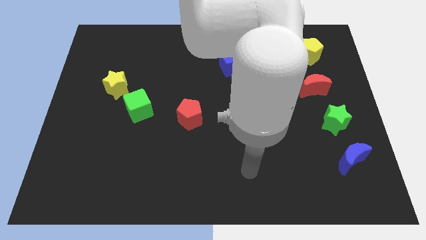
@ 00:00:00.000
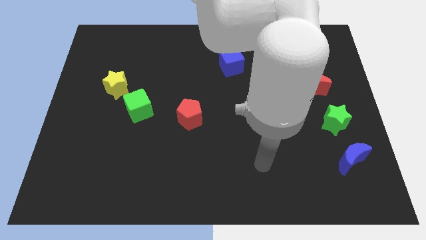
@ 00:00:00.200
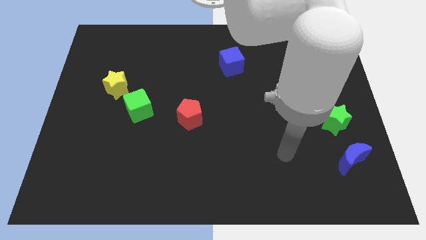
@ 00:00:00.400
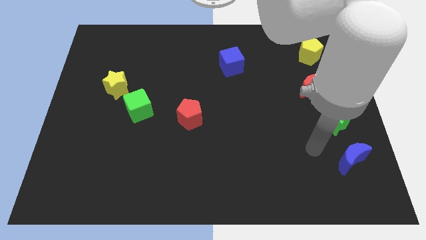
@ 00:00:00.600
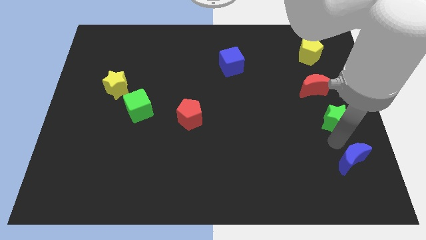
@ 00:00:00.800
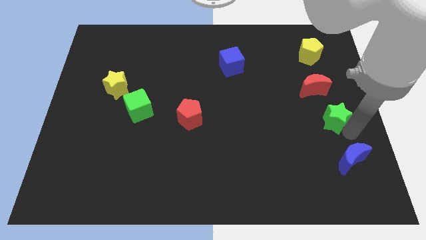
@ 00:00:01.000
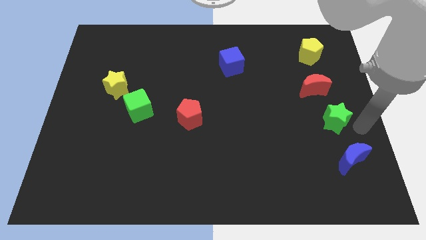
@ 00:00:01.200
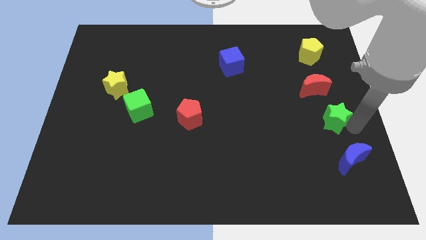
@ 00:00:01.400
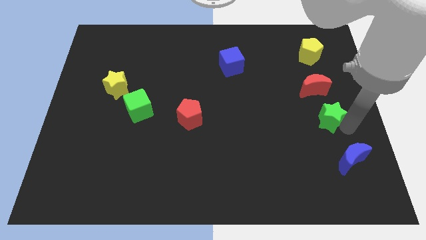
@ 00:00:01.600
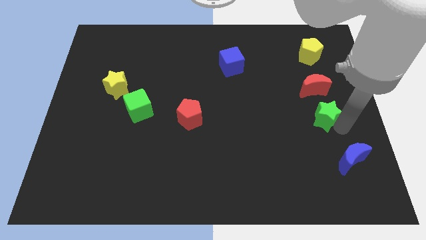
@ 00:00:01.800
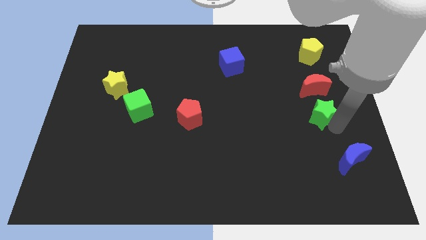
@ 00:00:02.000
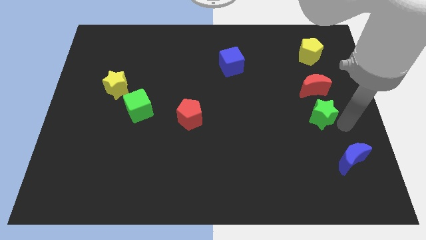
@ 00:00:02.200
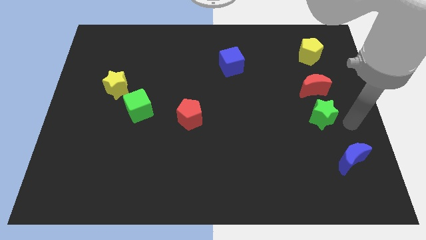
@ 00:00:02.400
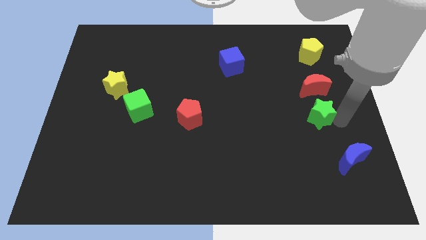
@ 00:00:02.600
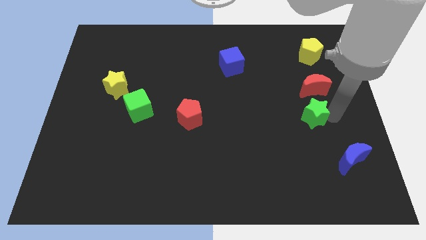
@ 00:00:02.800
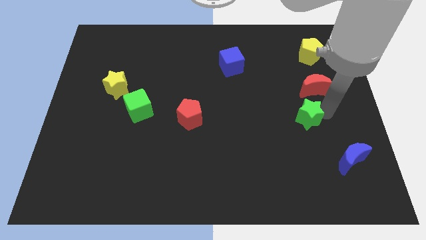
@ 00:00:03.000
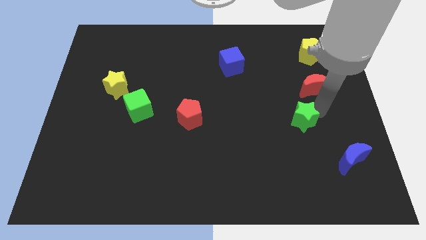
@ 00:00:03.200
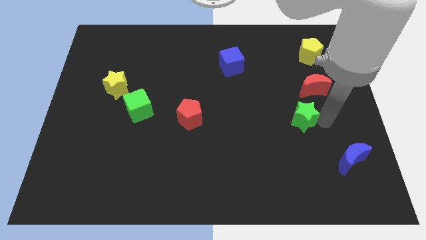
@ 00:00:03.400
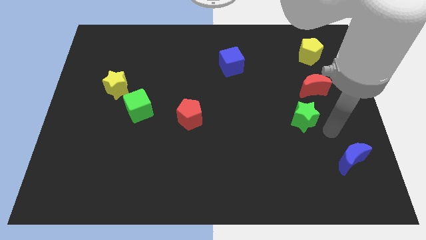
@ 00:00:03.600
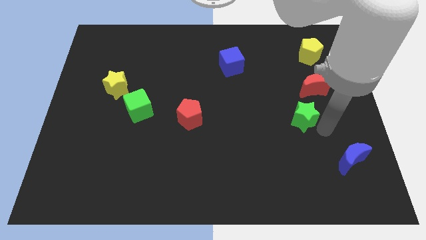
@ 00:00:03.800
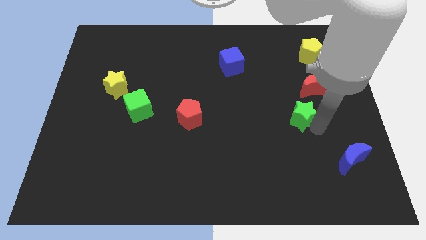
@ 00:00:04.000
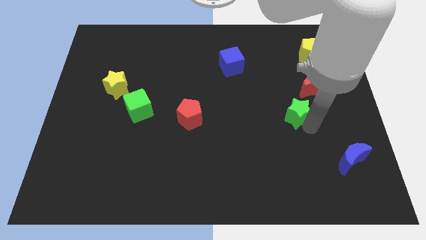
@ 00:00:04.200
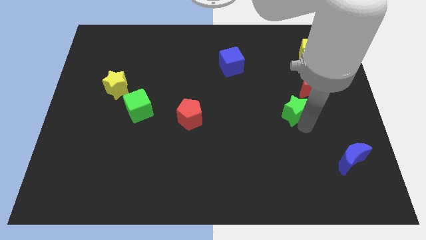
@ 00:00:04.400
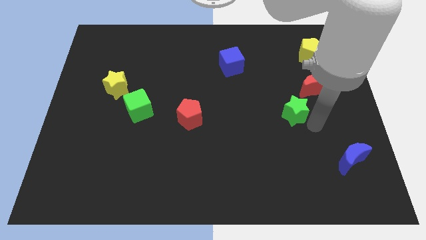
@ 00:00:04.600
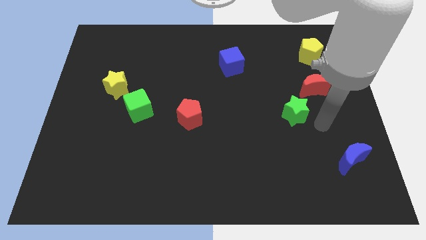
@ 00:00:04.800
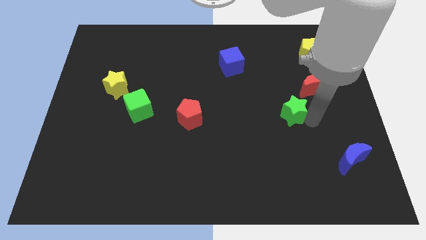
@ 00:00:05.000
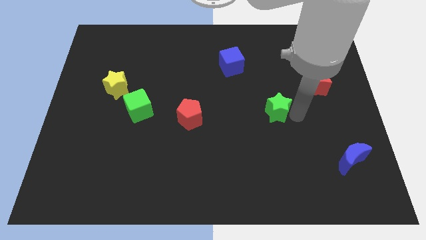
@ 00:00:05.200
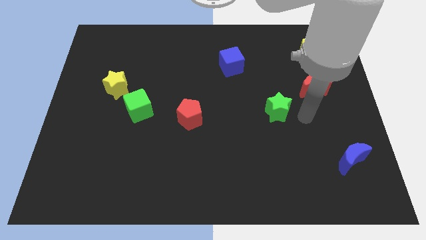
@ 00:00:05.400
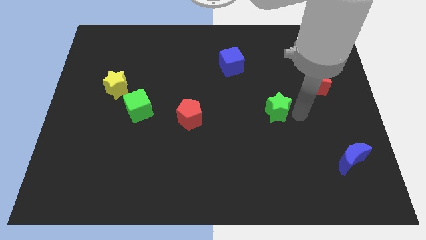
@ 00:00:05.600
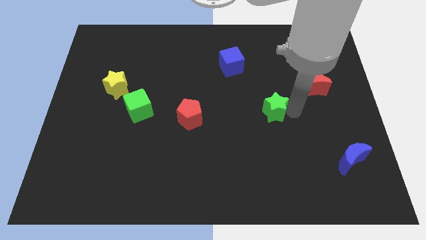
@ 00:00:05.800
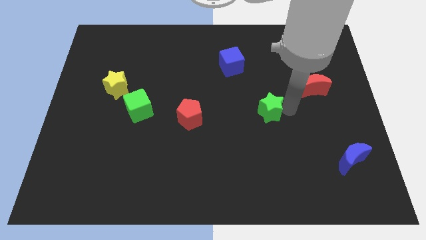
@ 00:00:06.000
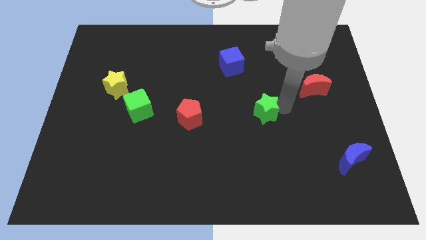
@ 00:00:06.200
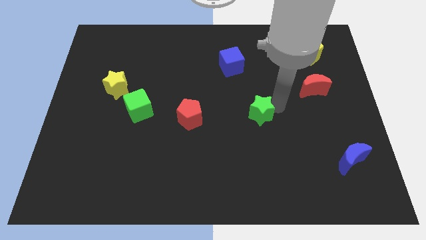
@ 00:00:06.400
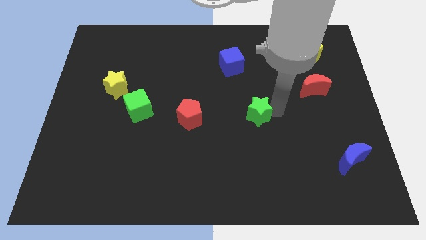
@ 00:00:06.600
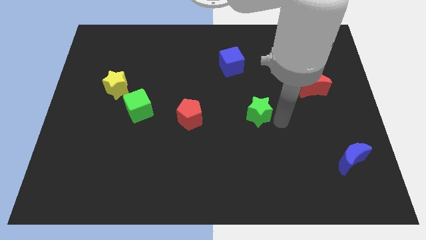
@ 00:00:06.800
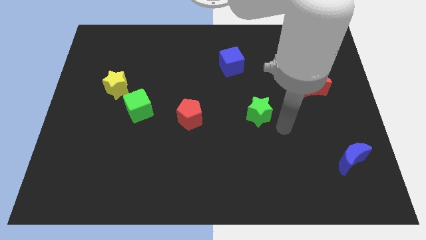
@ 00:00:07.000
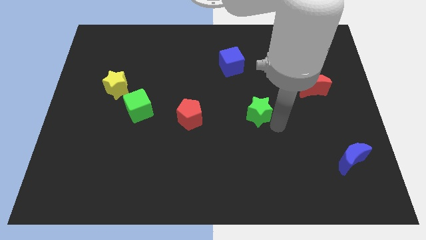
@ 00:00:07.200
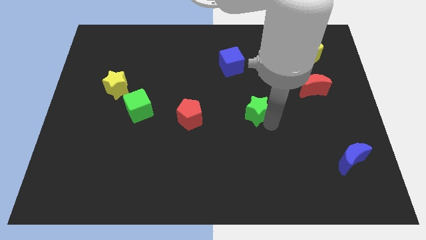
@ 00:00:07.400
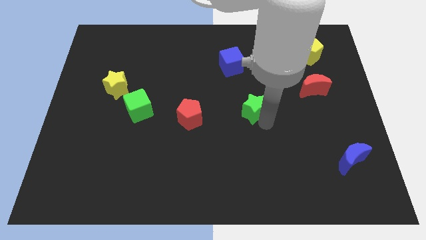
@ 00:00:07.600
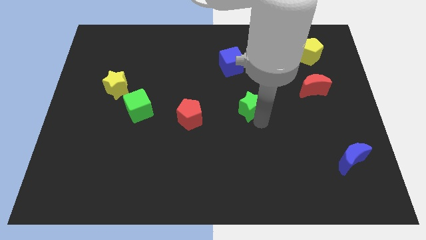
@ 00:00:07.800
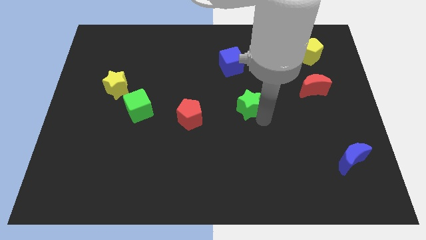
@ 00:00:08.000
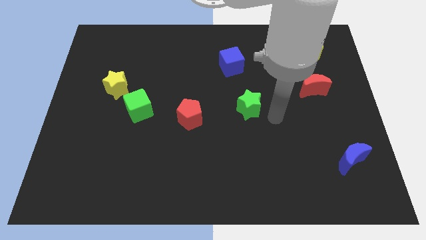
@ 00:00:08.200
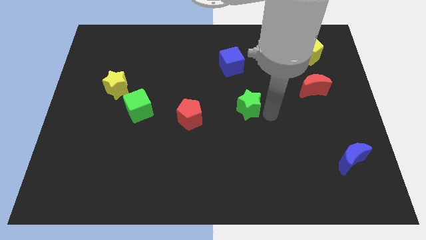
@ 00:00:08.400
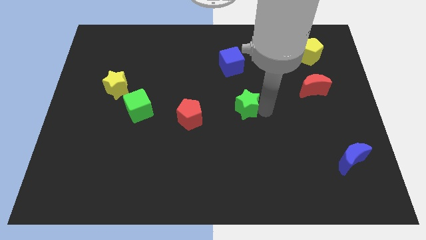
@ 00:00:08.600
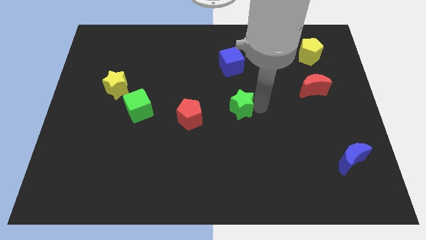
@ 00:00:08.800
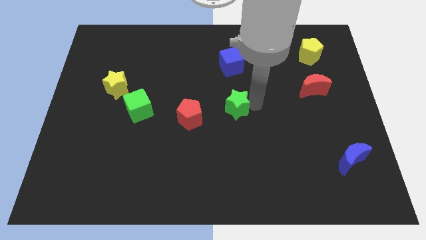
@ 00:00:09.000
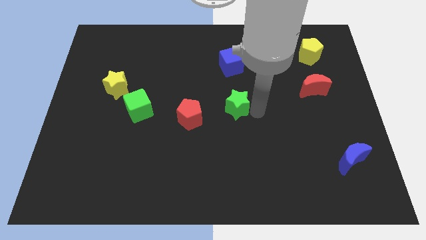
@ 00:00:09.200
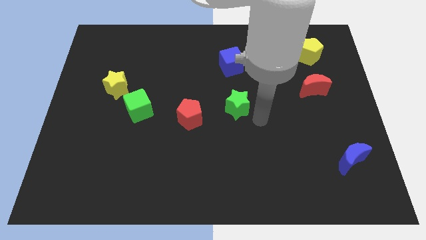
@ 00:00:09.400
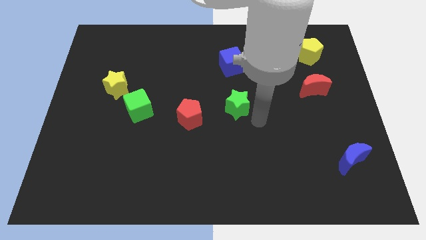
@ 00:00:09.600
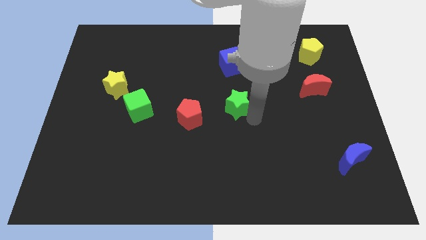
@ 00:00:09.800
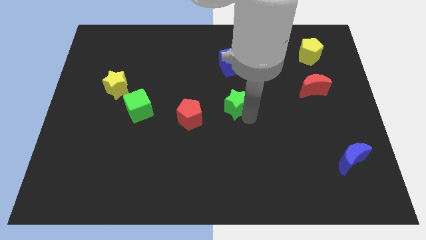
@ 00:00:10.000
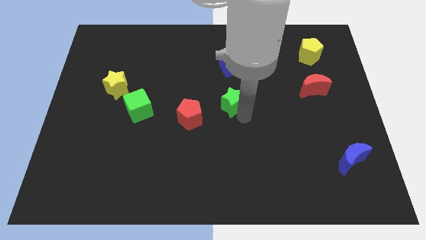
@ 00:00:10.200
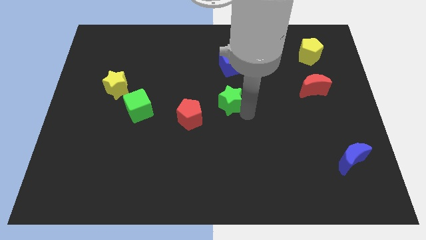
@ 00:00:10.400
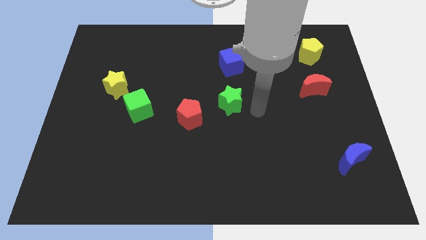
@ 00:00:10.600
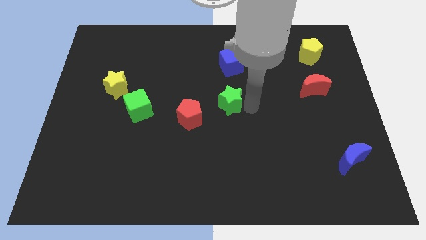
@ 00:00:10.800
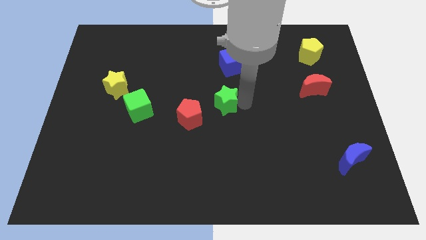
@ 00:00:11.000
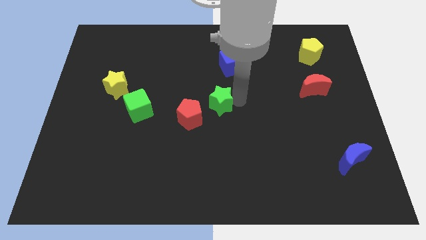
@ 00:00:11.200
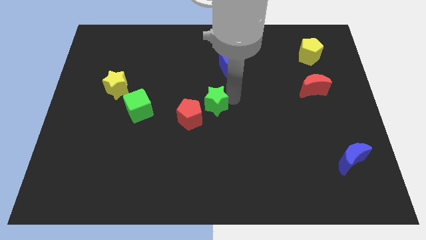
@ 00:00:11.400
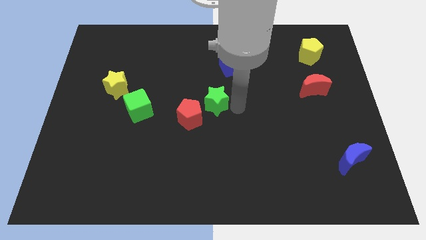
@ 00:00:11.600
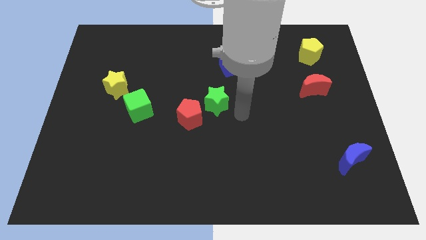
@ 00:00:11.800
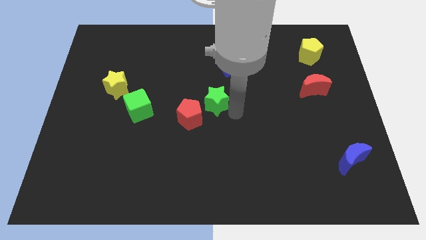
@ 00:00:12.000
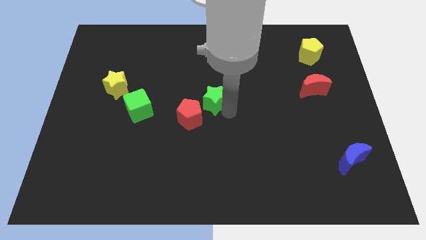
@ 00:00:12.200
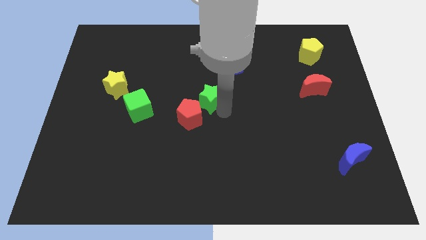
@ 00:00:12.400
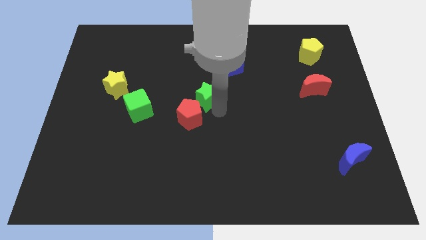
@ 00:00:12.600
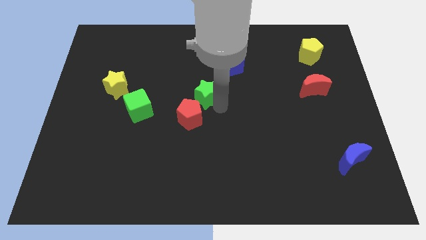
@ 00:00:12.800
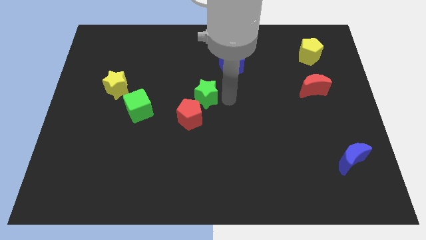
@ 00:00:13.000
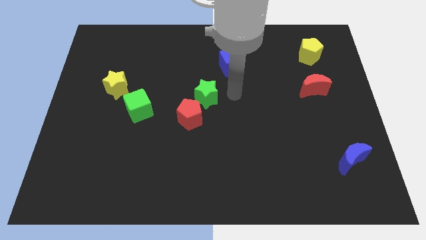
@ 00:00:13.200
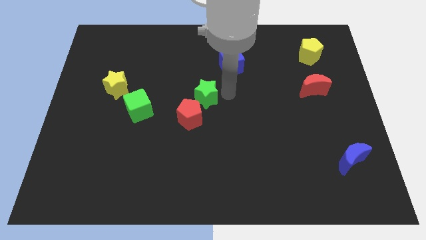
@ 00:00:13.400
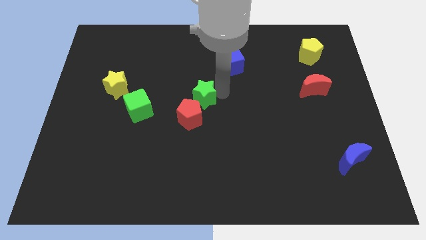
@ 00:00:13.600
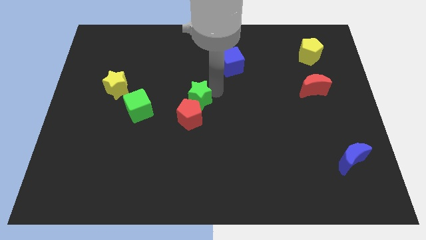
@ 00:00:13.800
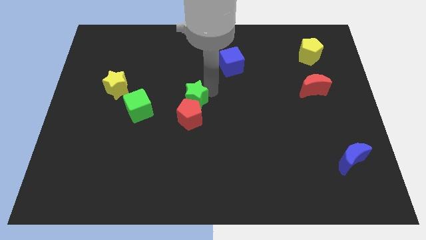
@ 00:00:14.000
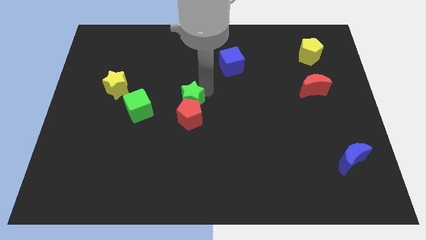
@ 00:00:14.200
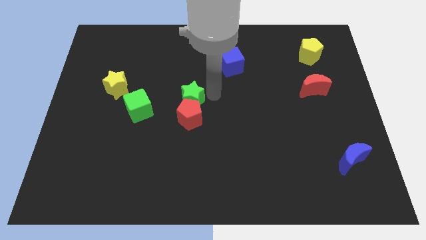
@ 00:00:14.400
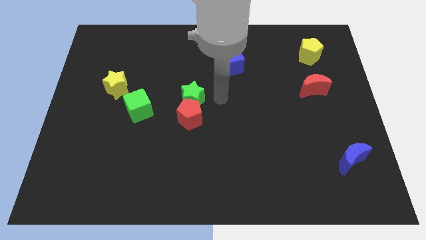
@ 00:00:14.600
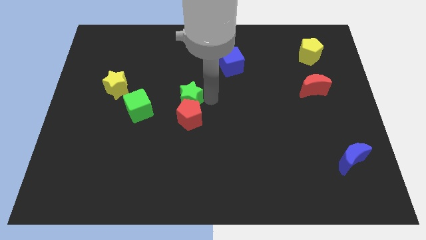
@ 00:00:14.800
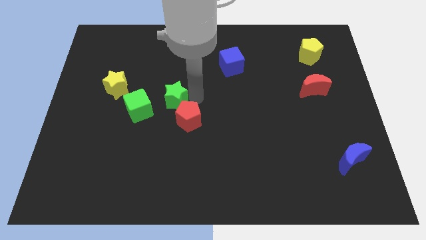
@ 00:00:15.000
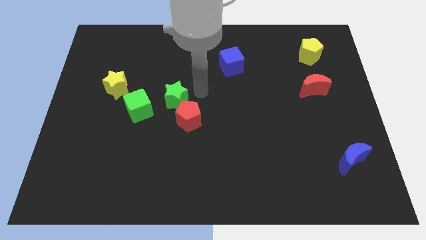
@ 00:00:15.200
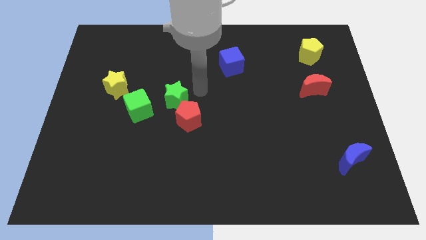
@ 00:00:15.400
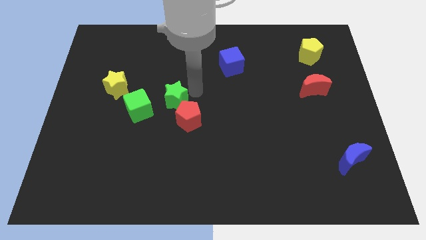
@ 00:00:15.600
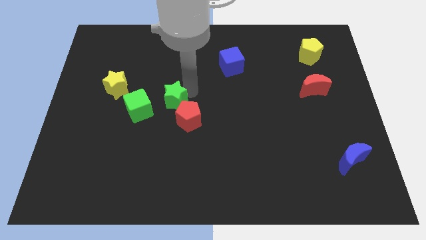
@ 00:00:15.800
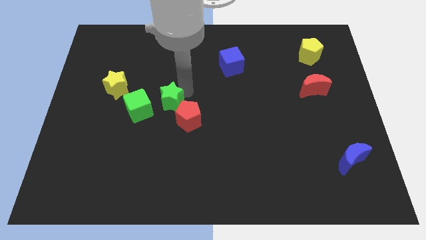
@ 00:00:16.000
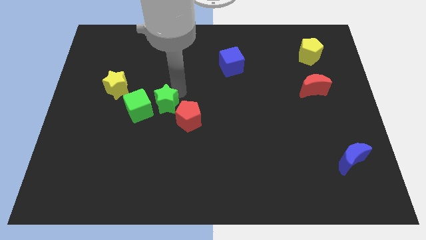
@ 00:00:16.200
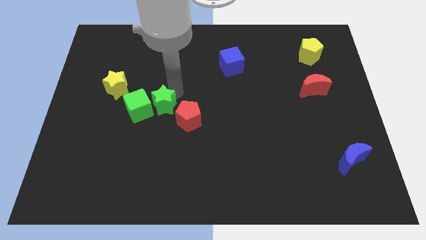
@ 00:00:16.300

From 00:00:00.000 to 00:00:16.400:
slide the green star next to the green cube

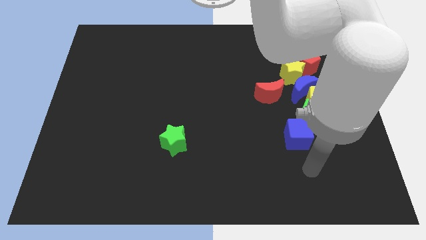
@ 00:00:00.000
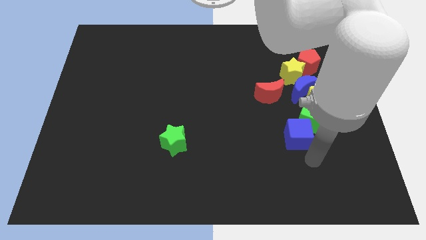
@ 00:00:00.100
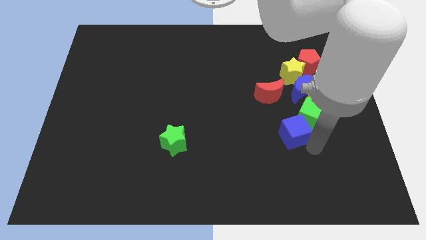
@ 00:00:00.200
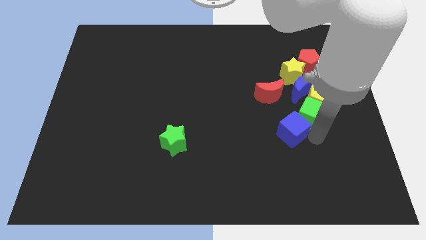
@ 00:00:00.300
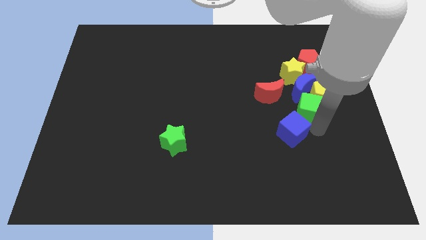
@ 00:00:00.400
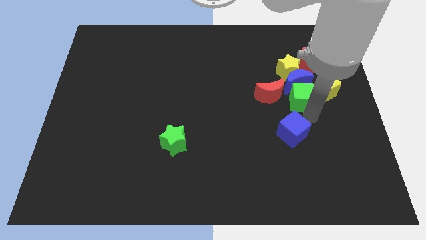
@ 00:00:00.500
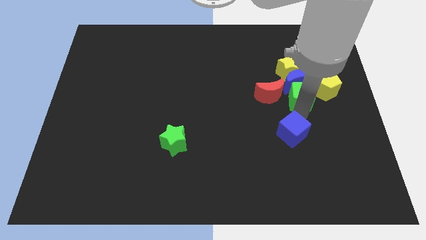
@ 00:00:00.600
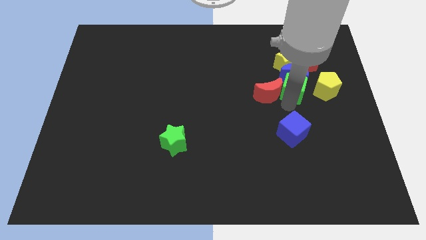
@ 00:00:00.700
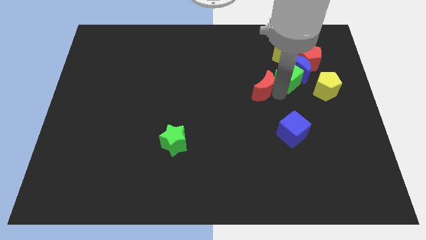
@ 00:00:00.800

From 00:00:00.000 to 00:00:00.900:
push the blue moon to the red pentagon
